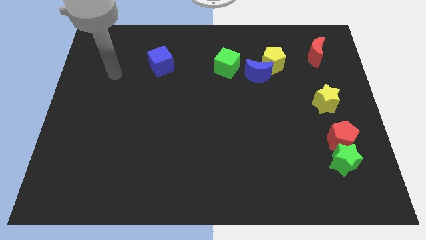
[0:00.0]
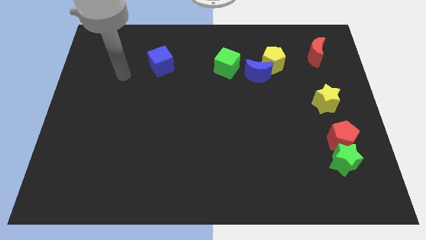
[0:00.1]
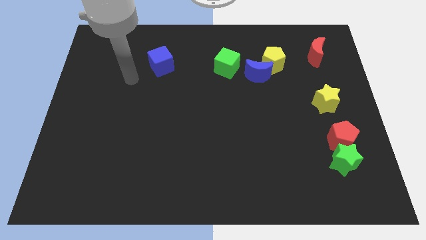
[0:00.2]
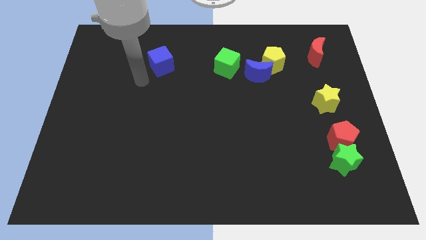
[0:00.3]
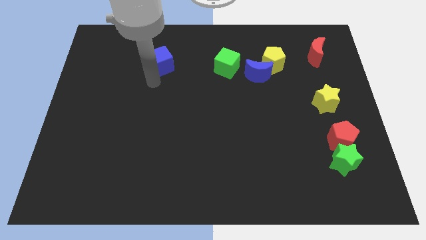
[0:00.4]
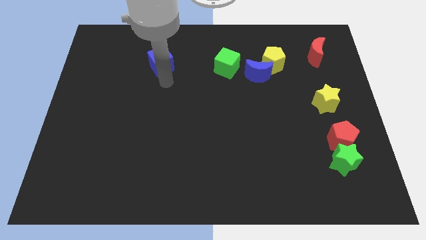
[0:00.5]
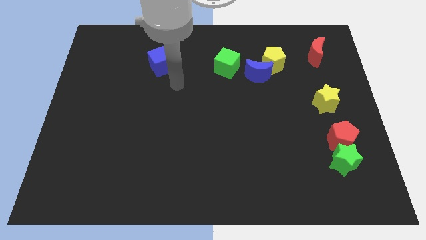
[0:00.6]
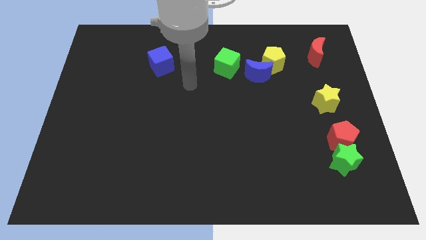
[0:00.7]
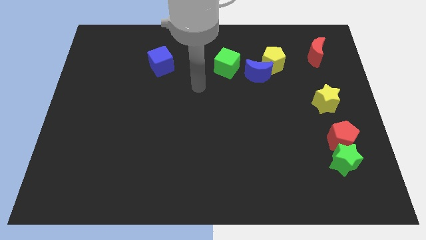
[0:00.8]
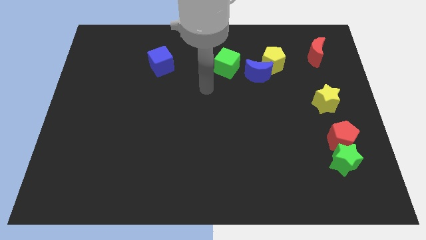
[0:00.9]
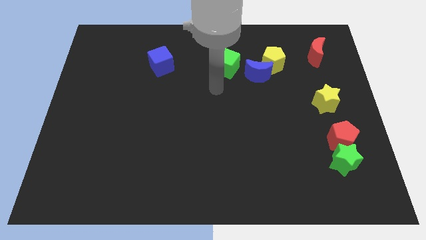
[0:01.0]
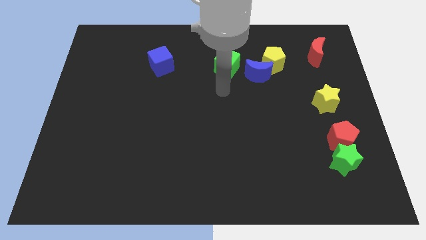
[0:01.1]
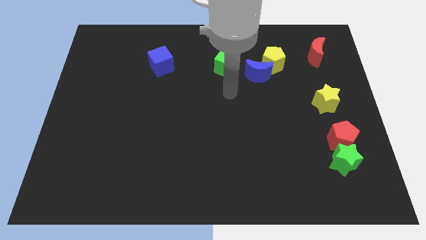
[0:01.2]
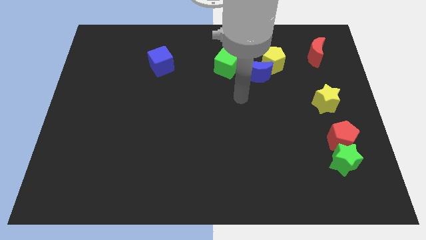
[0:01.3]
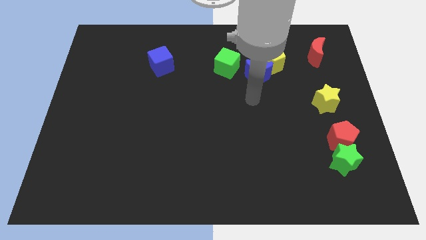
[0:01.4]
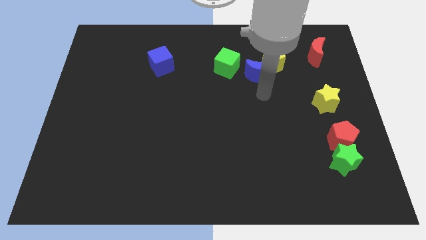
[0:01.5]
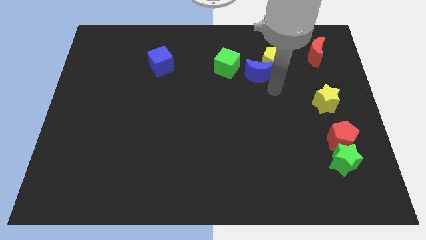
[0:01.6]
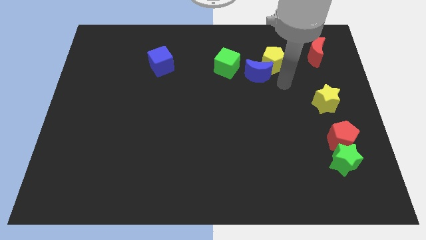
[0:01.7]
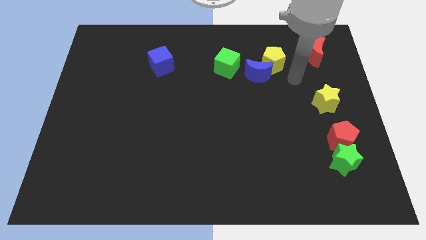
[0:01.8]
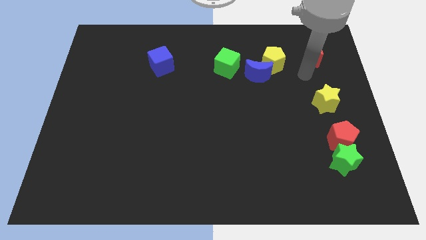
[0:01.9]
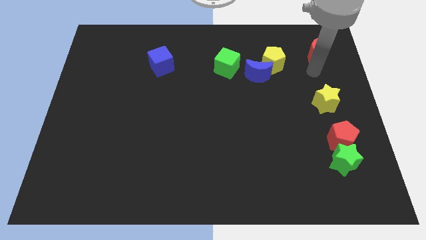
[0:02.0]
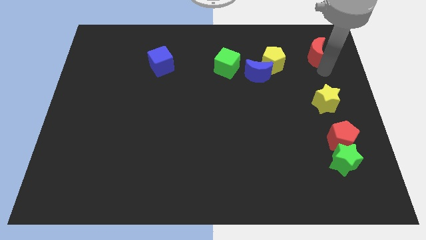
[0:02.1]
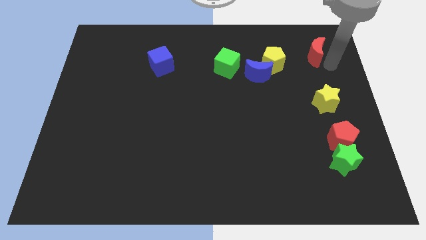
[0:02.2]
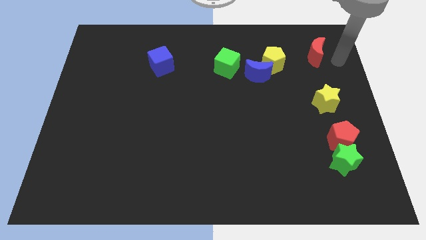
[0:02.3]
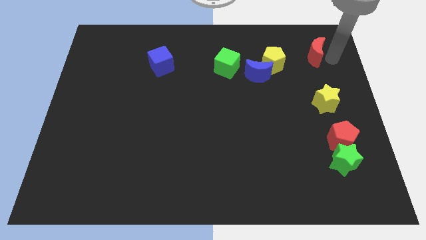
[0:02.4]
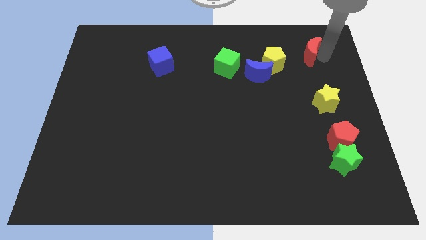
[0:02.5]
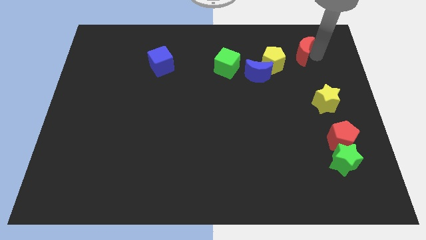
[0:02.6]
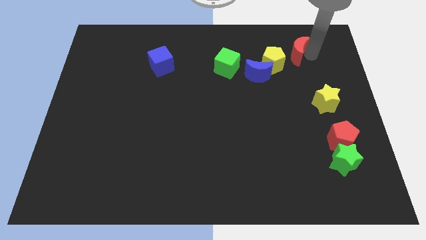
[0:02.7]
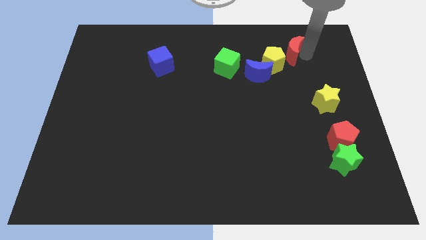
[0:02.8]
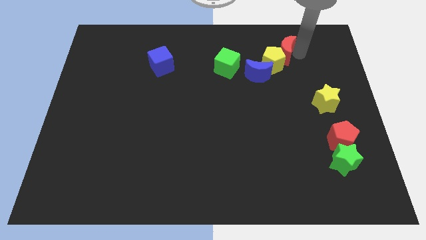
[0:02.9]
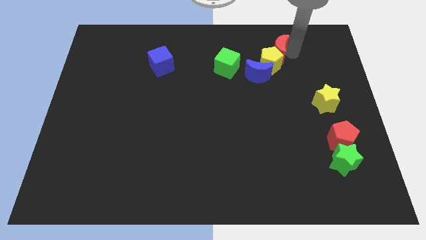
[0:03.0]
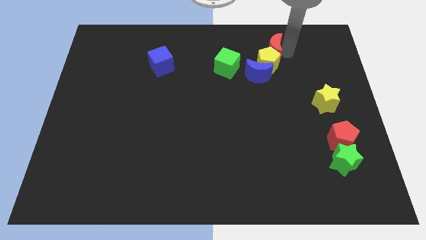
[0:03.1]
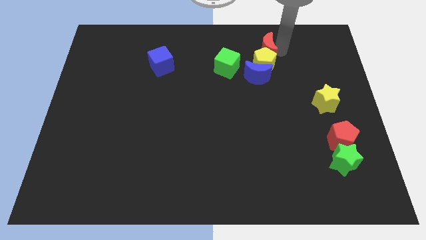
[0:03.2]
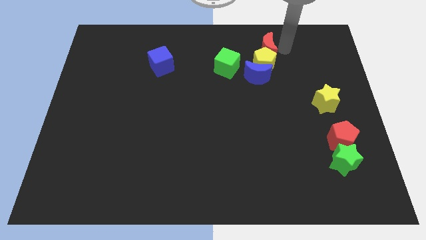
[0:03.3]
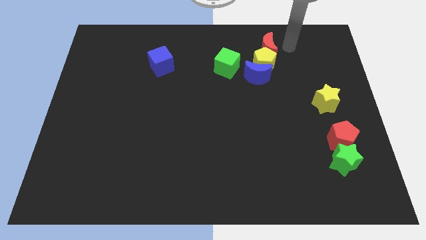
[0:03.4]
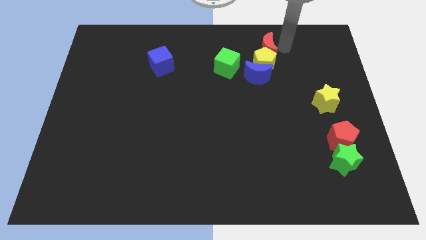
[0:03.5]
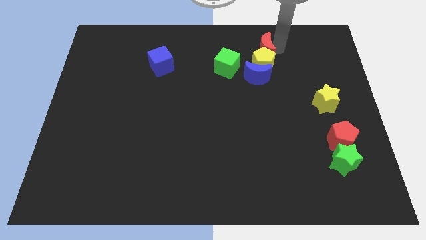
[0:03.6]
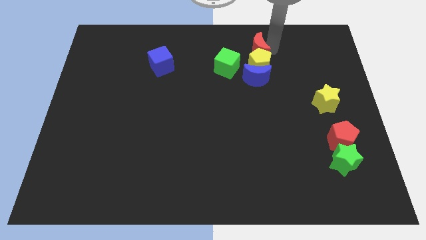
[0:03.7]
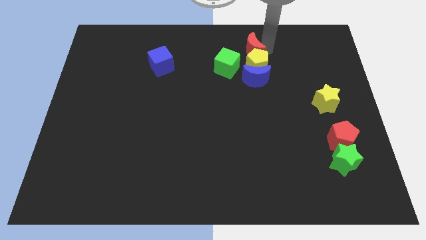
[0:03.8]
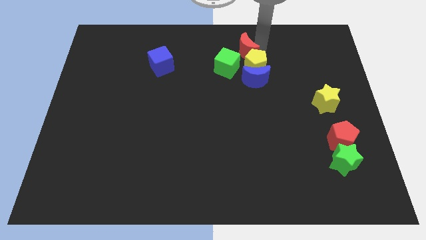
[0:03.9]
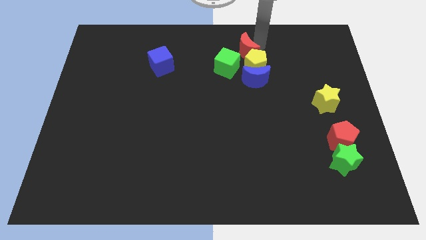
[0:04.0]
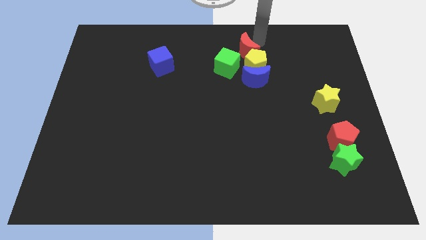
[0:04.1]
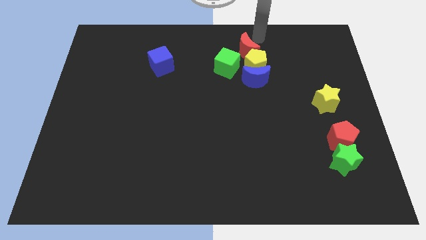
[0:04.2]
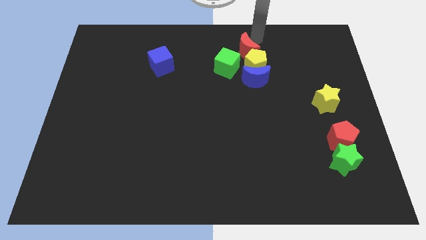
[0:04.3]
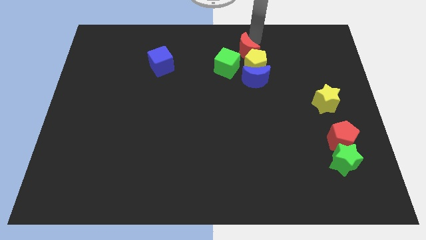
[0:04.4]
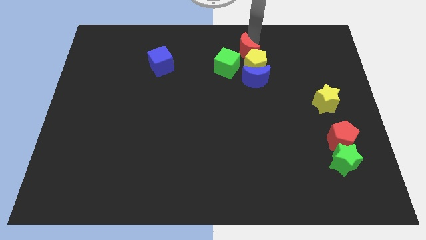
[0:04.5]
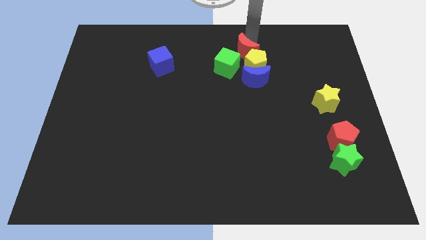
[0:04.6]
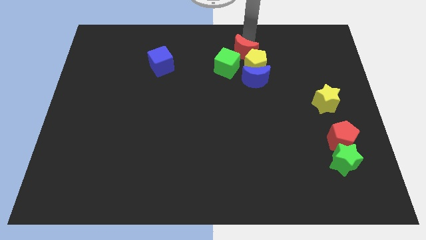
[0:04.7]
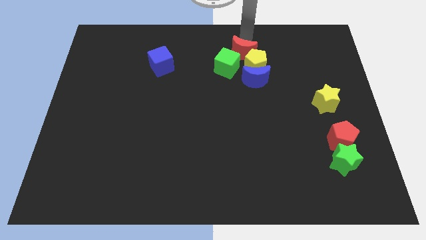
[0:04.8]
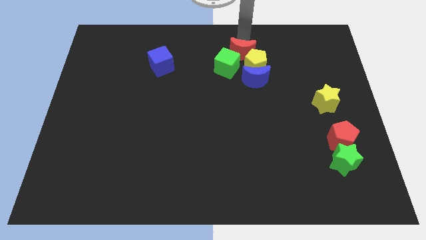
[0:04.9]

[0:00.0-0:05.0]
push the red moon to the top left side of the blue moon

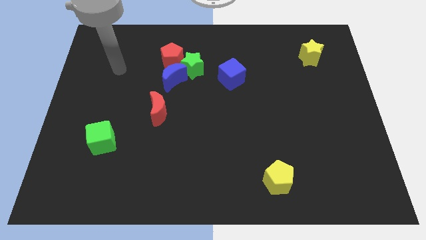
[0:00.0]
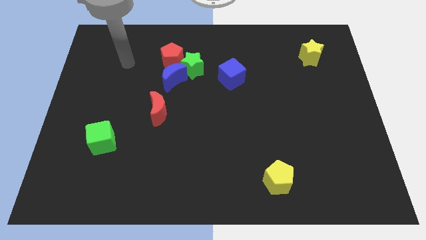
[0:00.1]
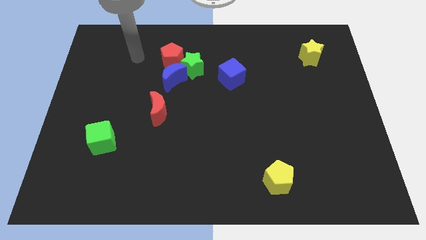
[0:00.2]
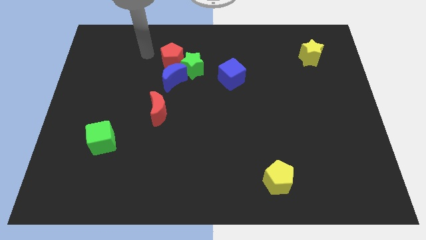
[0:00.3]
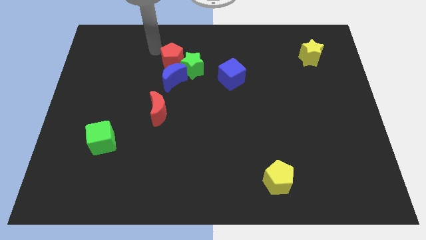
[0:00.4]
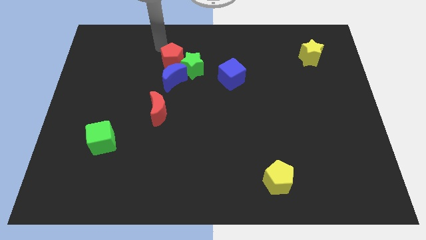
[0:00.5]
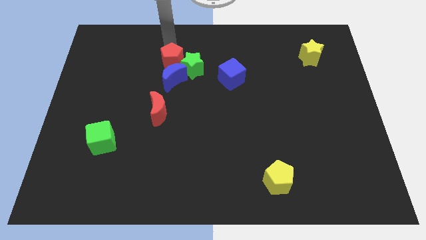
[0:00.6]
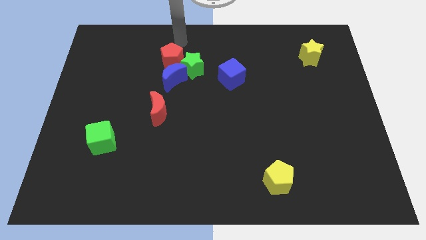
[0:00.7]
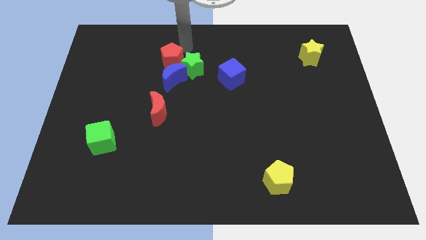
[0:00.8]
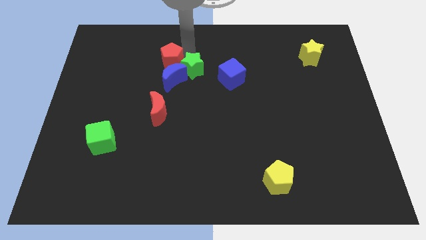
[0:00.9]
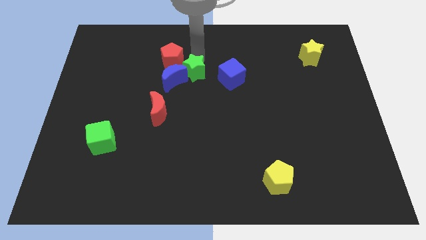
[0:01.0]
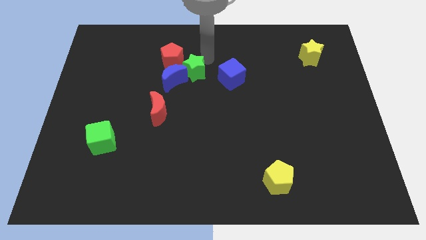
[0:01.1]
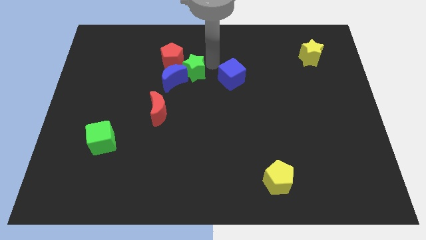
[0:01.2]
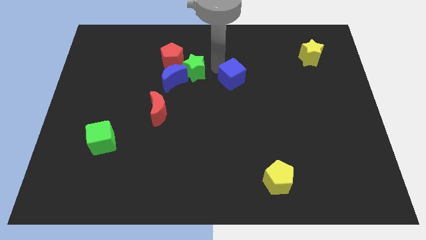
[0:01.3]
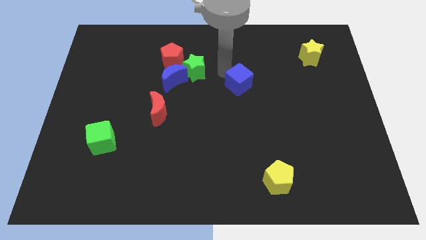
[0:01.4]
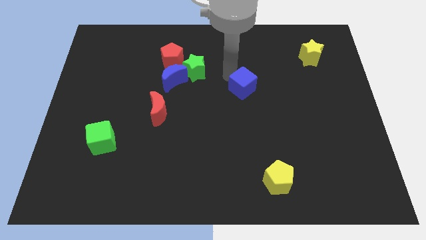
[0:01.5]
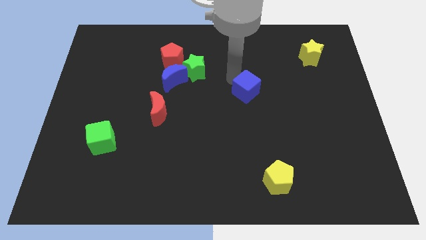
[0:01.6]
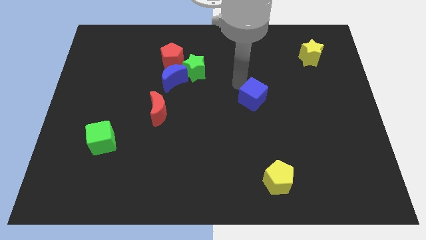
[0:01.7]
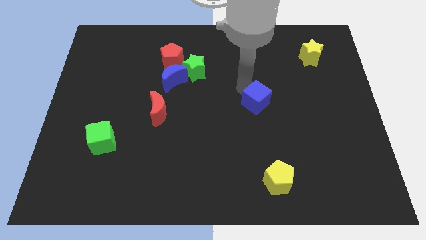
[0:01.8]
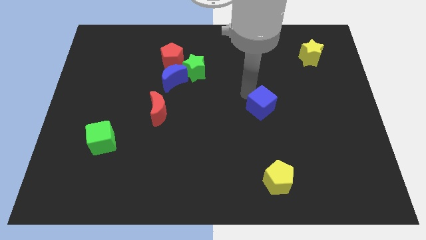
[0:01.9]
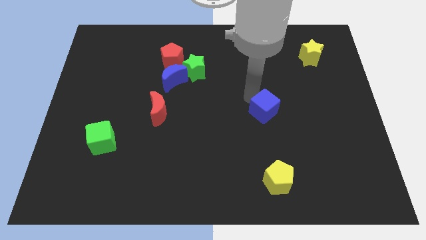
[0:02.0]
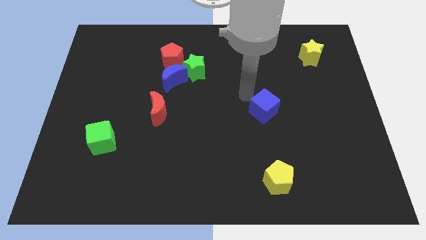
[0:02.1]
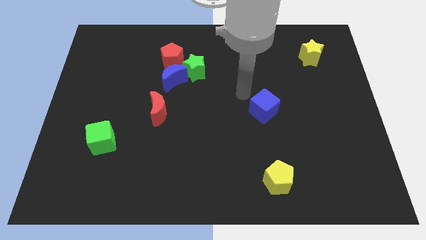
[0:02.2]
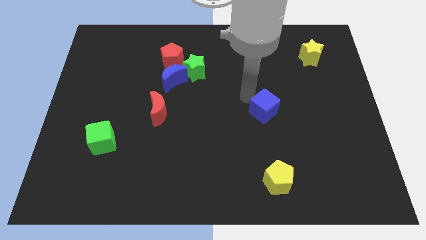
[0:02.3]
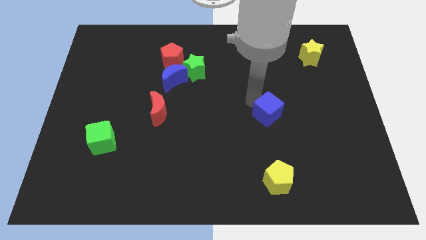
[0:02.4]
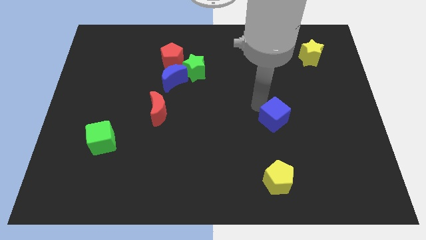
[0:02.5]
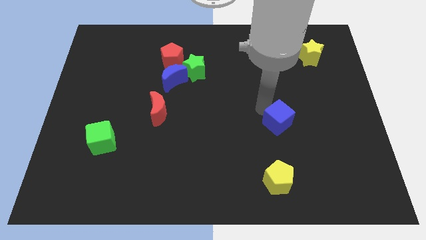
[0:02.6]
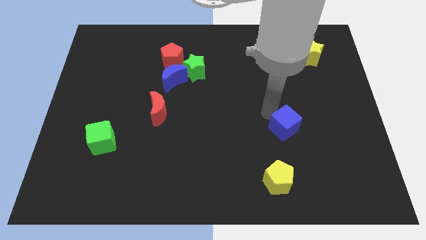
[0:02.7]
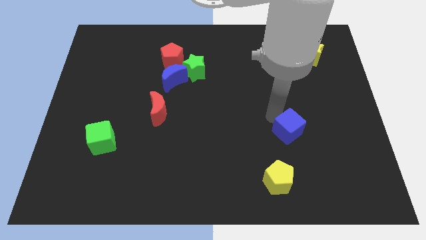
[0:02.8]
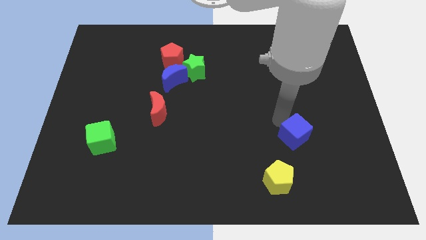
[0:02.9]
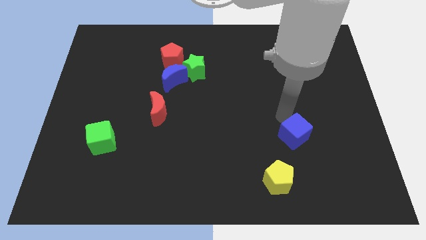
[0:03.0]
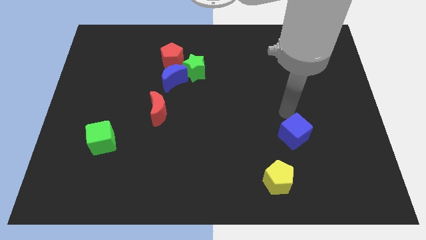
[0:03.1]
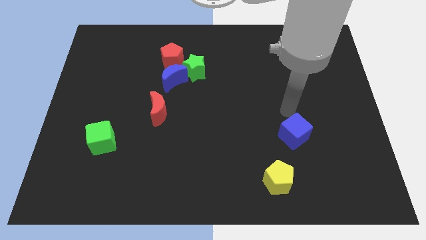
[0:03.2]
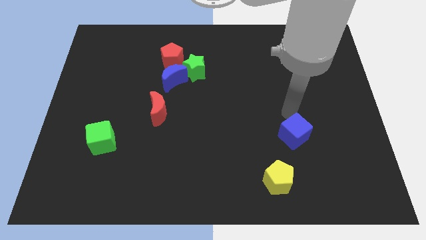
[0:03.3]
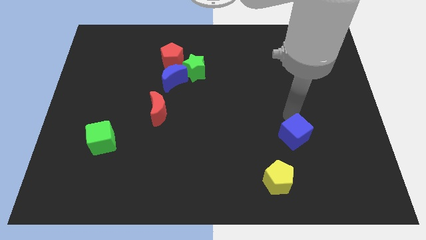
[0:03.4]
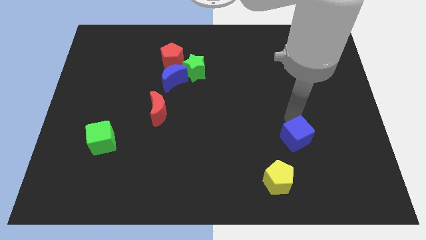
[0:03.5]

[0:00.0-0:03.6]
move the blue cube to the top right side of the yellow pentagon
